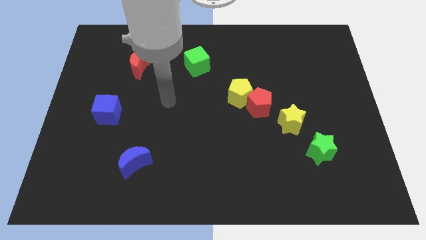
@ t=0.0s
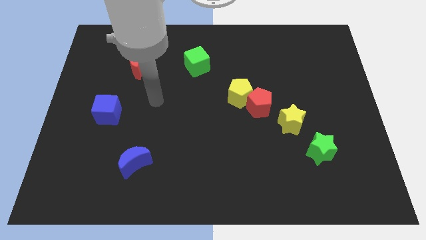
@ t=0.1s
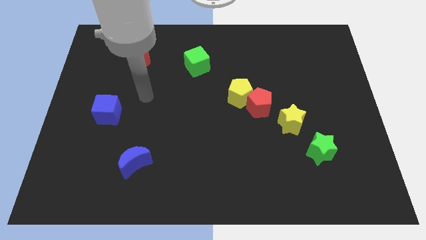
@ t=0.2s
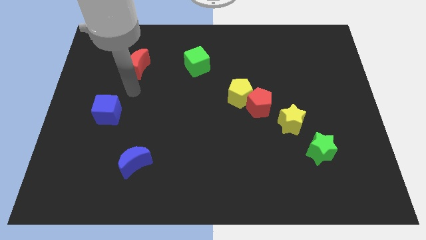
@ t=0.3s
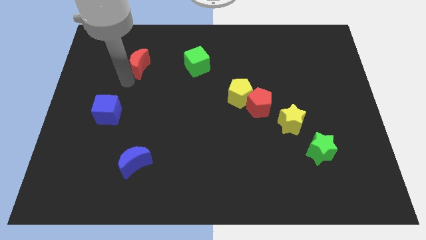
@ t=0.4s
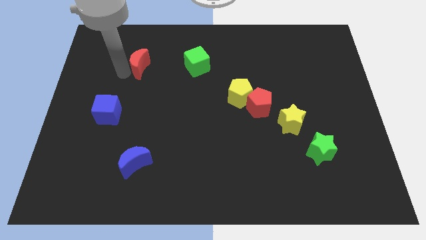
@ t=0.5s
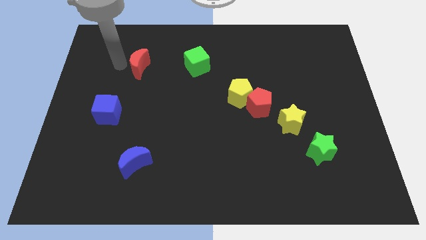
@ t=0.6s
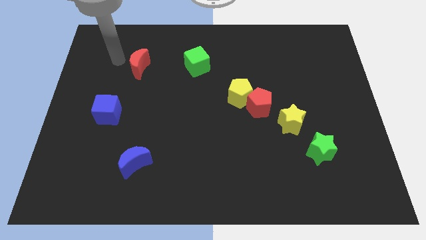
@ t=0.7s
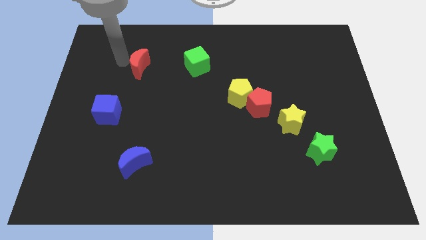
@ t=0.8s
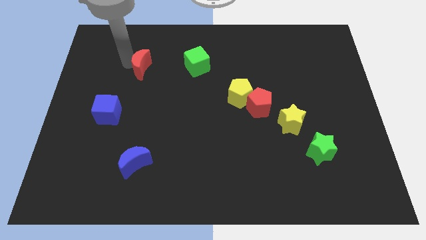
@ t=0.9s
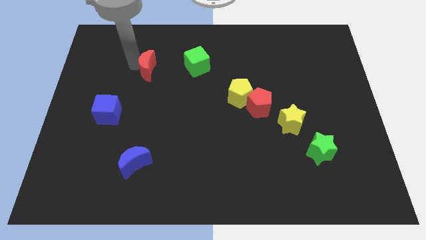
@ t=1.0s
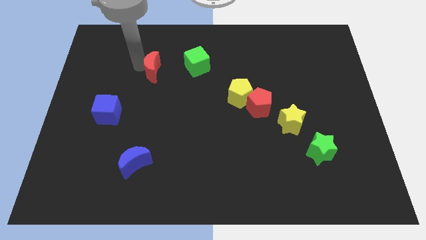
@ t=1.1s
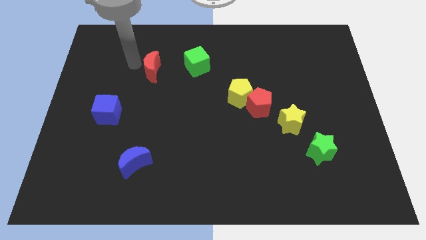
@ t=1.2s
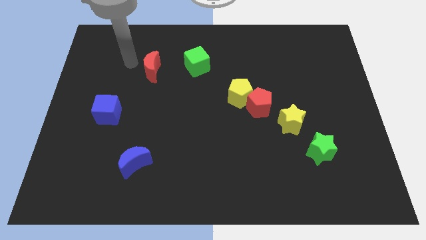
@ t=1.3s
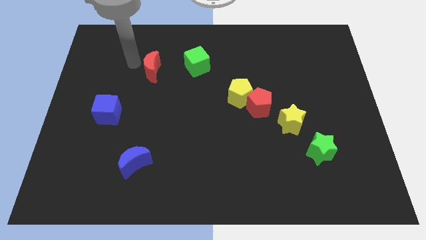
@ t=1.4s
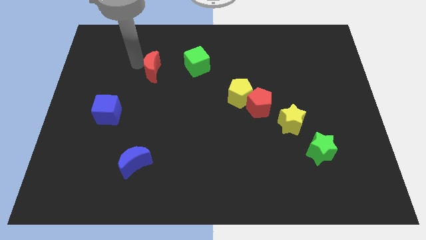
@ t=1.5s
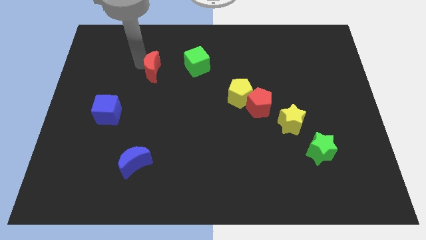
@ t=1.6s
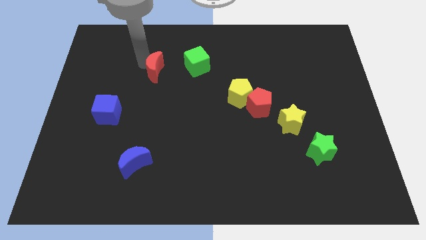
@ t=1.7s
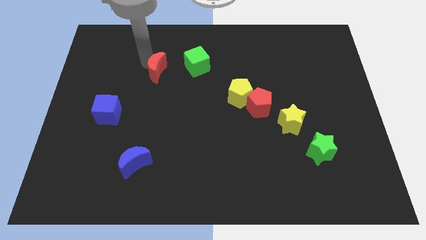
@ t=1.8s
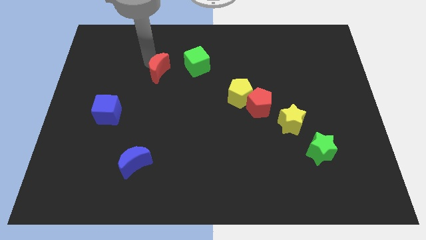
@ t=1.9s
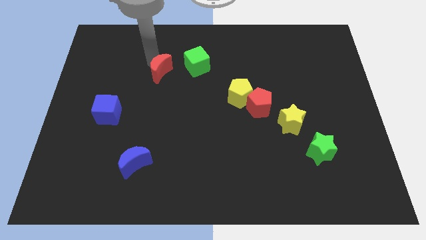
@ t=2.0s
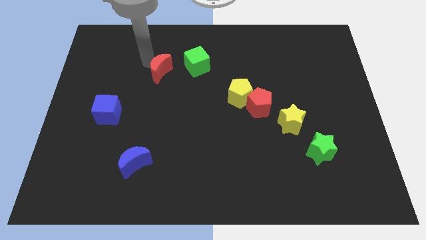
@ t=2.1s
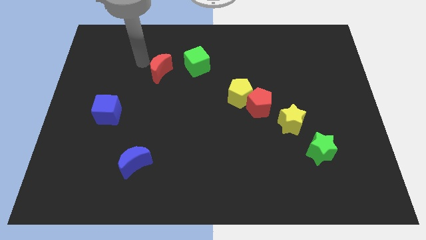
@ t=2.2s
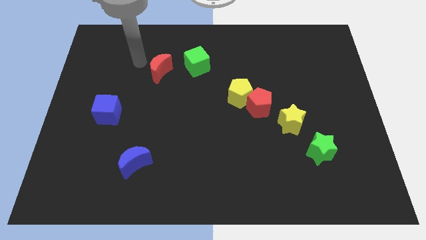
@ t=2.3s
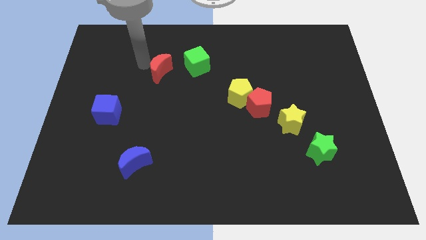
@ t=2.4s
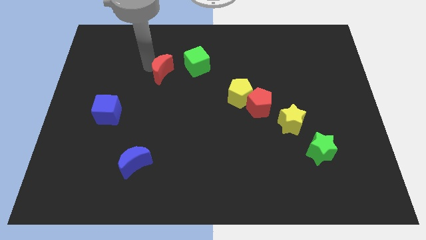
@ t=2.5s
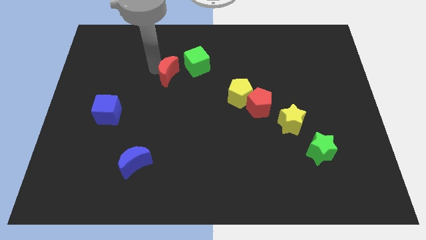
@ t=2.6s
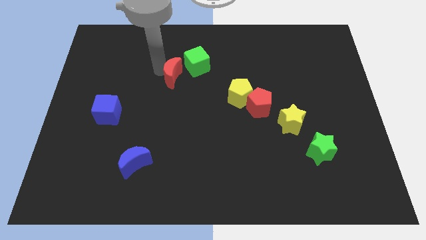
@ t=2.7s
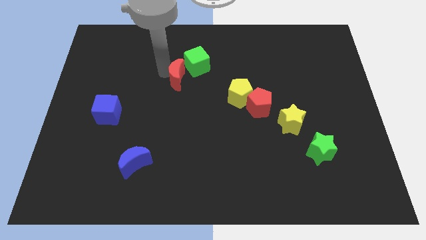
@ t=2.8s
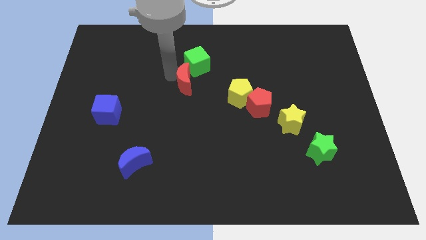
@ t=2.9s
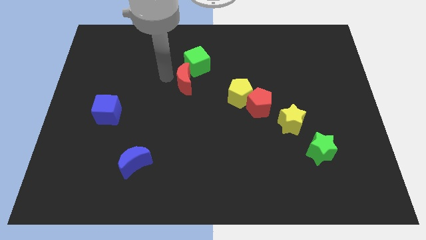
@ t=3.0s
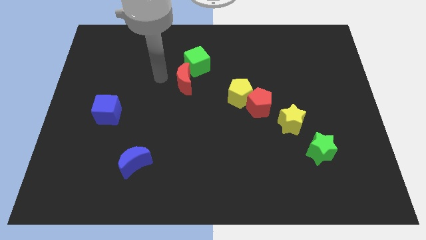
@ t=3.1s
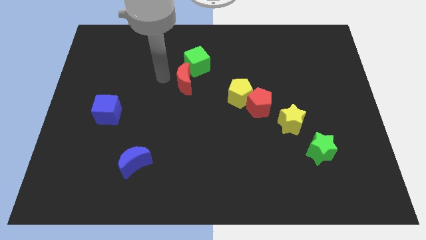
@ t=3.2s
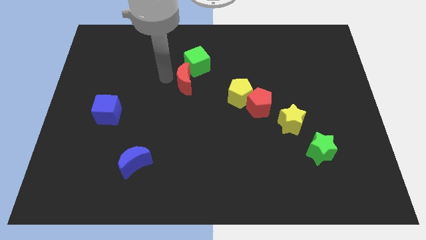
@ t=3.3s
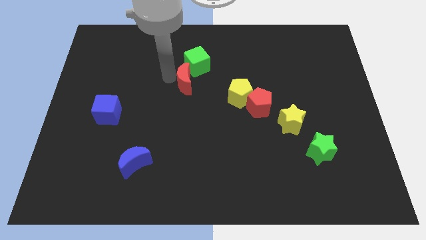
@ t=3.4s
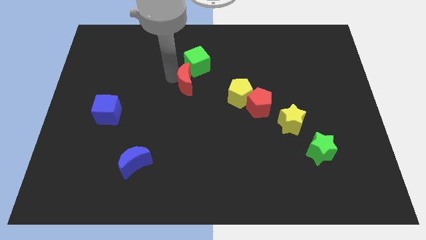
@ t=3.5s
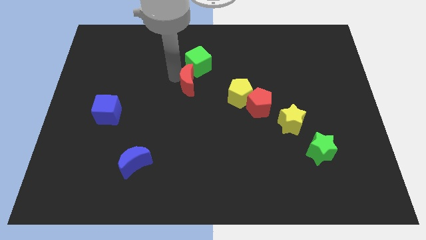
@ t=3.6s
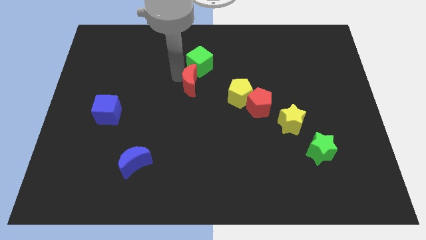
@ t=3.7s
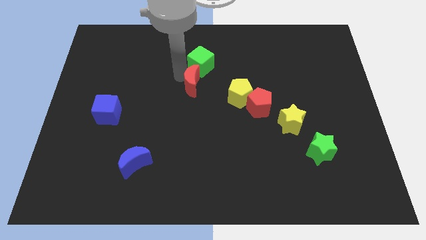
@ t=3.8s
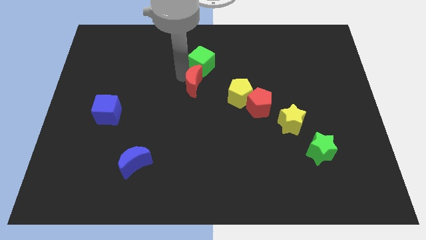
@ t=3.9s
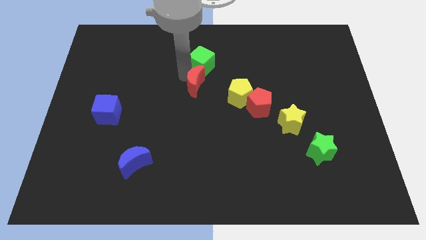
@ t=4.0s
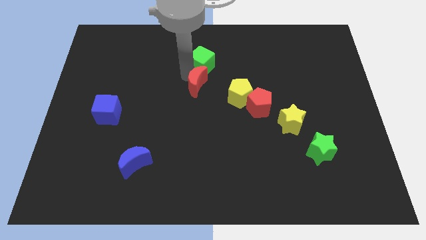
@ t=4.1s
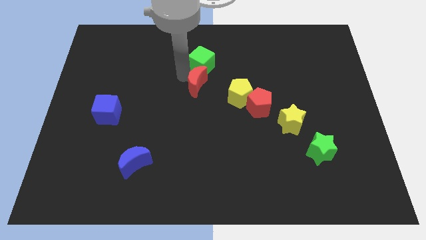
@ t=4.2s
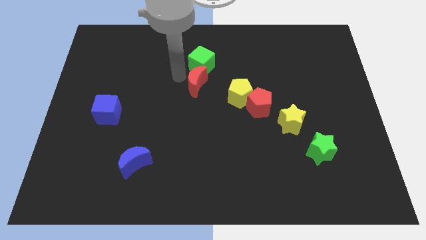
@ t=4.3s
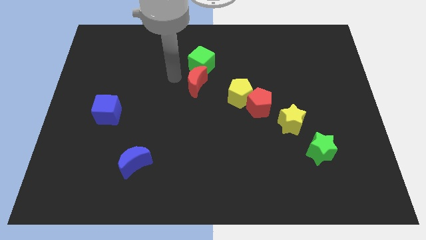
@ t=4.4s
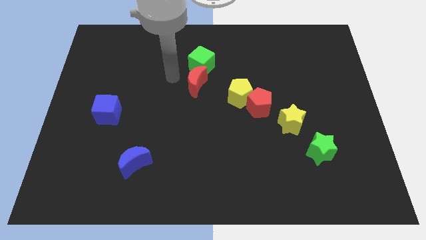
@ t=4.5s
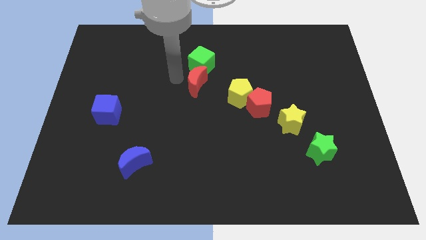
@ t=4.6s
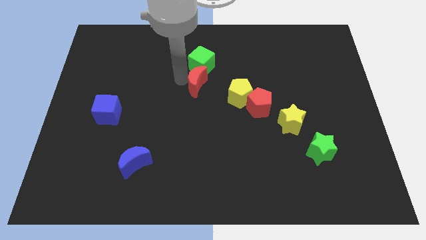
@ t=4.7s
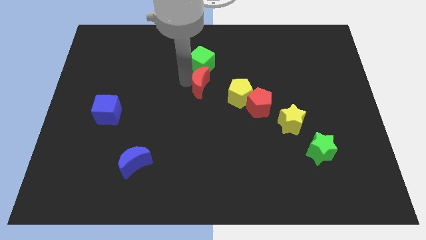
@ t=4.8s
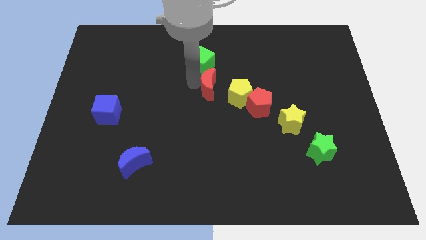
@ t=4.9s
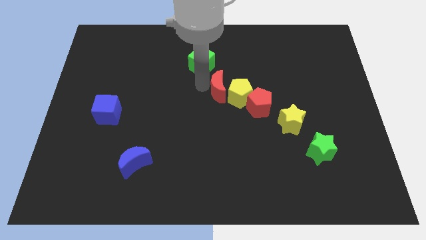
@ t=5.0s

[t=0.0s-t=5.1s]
move the red moon close to the yellow pentagon

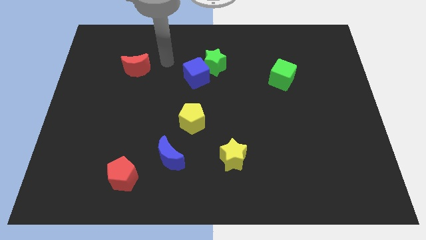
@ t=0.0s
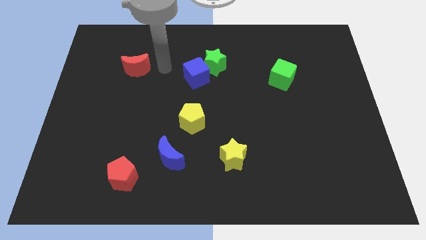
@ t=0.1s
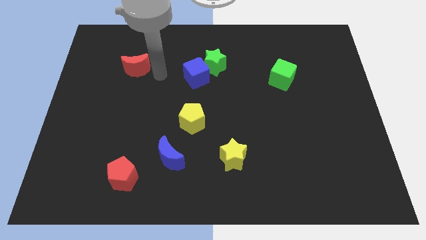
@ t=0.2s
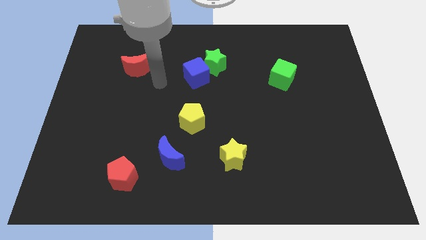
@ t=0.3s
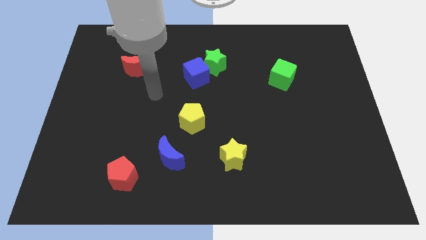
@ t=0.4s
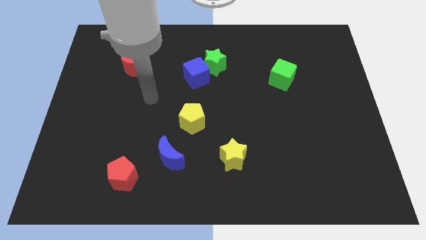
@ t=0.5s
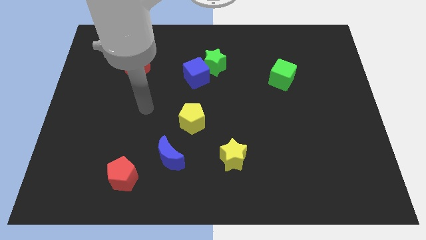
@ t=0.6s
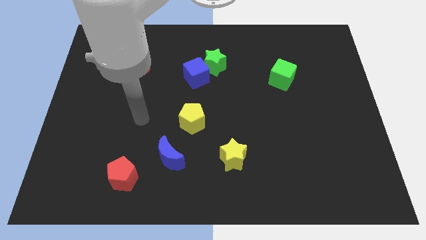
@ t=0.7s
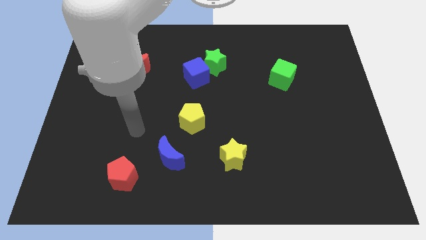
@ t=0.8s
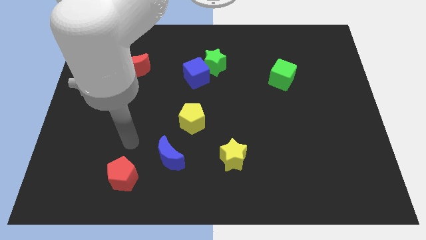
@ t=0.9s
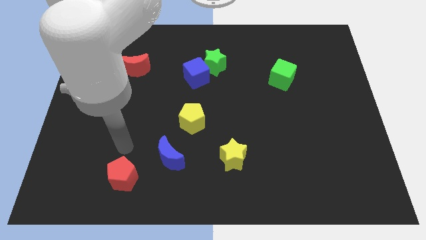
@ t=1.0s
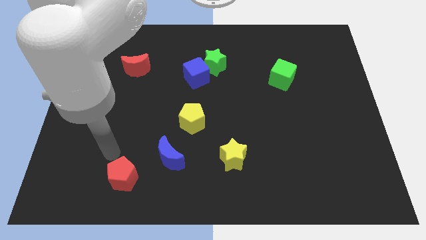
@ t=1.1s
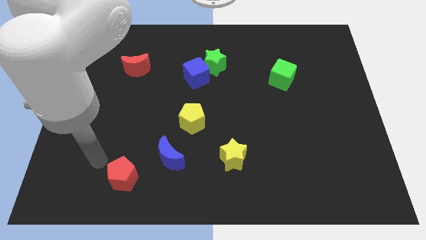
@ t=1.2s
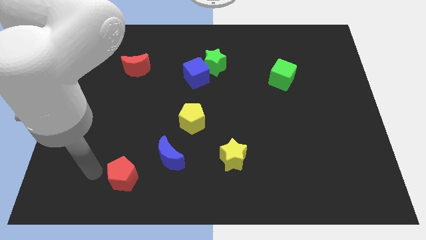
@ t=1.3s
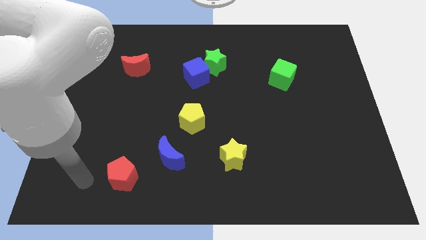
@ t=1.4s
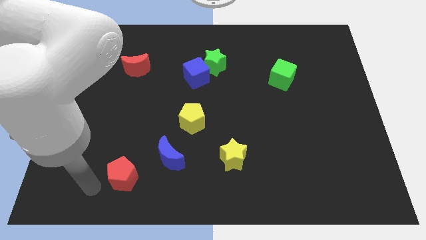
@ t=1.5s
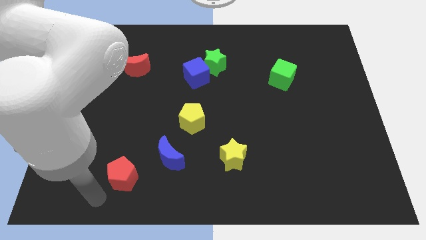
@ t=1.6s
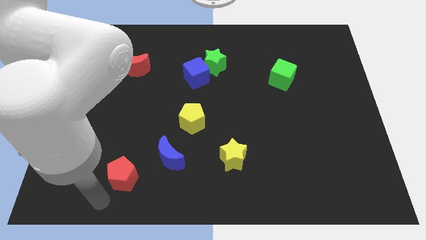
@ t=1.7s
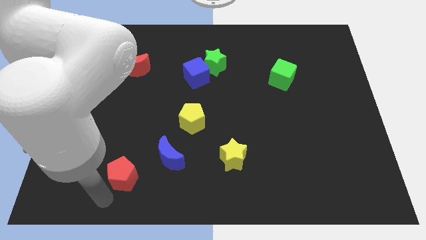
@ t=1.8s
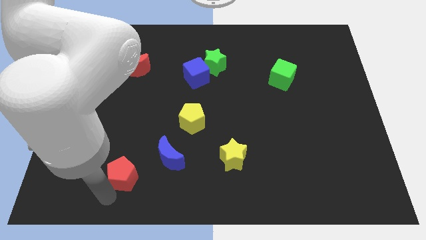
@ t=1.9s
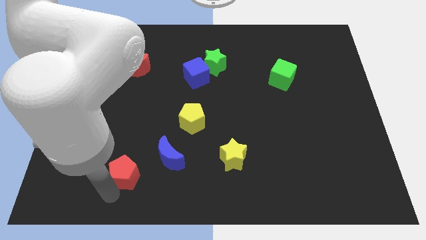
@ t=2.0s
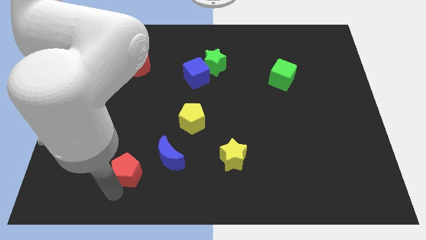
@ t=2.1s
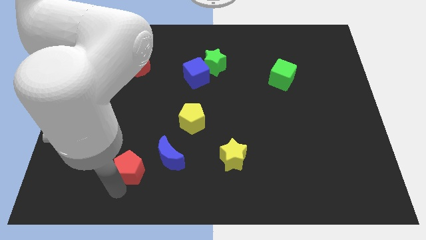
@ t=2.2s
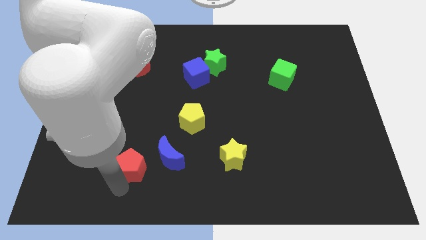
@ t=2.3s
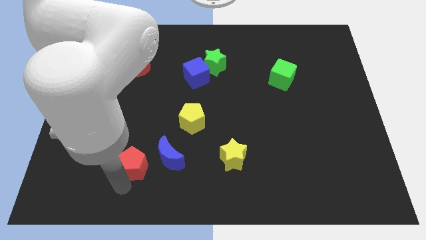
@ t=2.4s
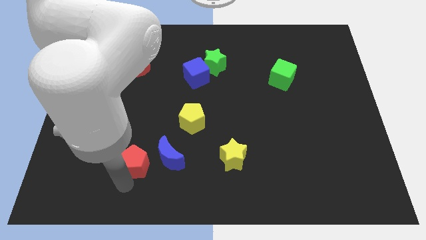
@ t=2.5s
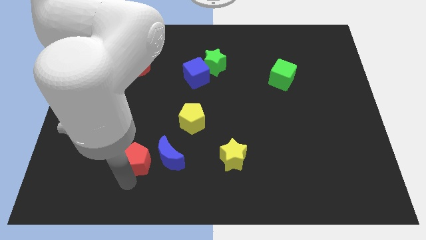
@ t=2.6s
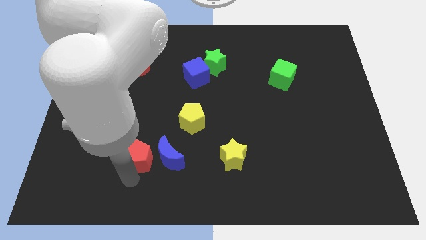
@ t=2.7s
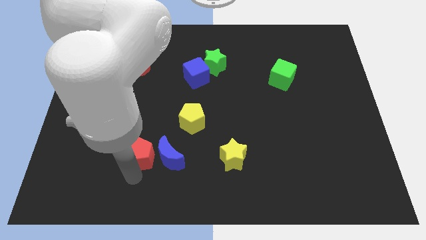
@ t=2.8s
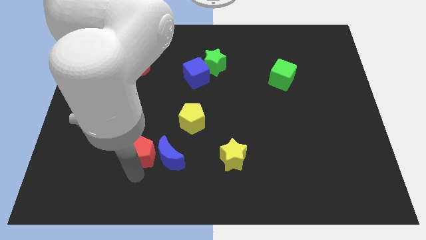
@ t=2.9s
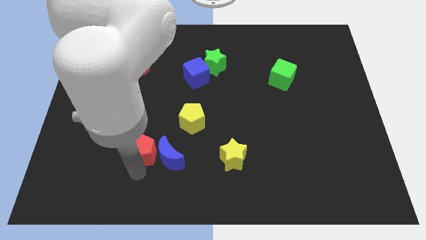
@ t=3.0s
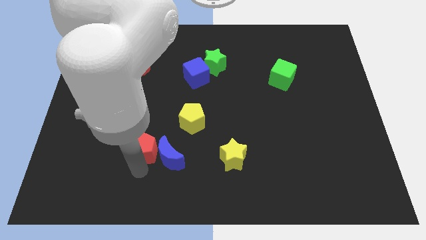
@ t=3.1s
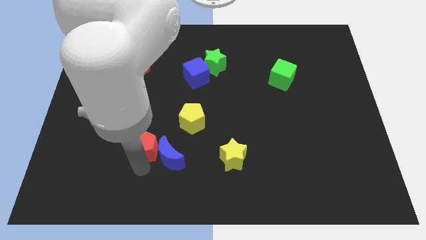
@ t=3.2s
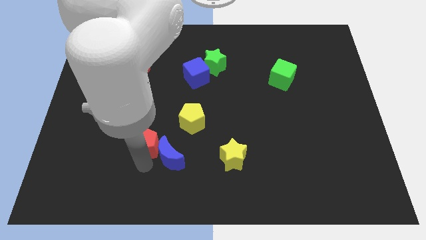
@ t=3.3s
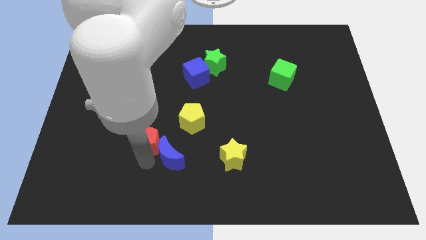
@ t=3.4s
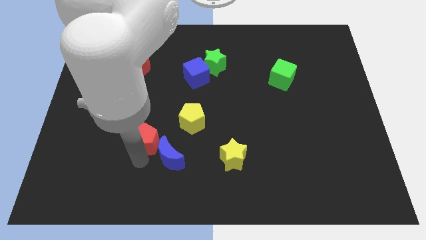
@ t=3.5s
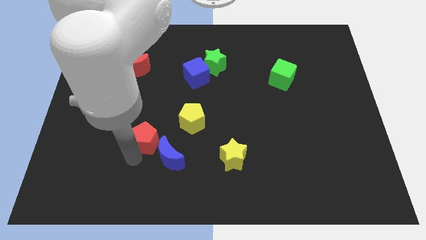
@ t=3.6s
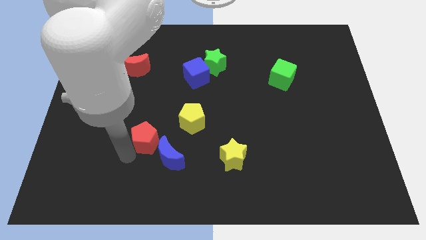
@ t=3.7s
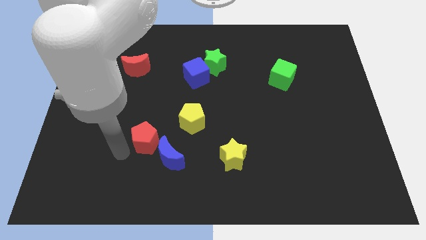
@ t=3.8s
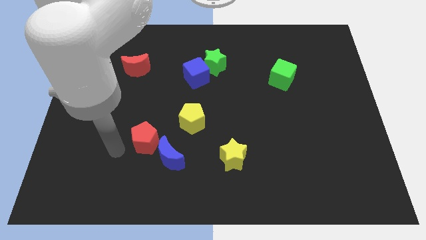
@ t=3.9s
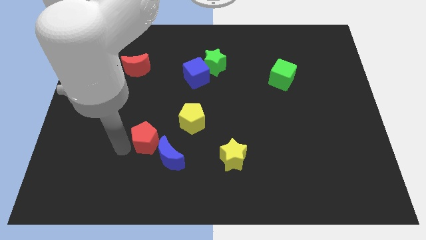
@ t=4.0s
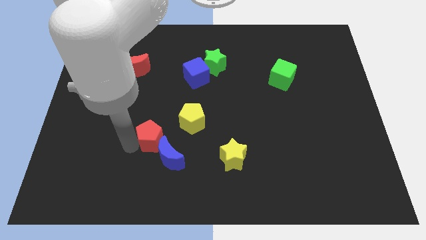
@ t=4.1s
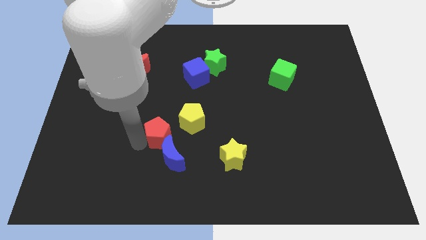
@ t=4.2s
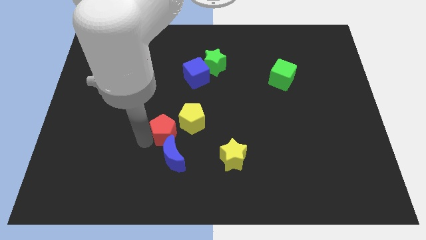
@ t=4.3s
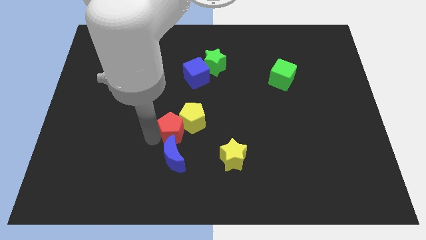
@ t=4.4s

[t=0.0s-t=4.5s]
push the red pentagon next to the yellow pentagon
